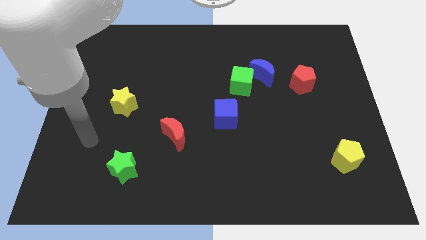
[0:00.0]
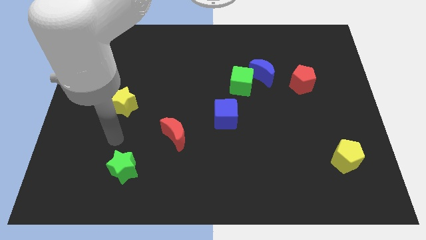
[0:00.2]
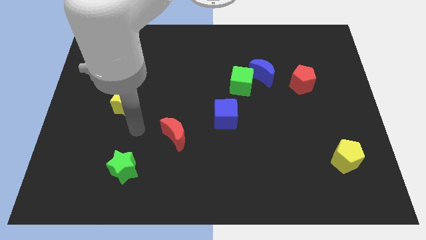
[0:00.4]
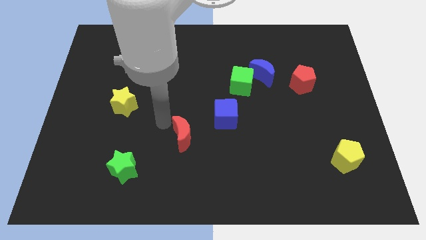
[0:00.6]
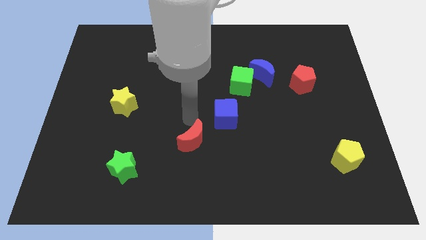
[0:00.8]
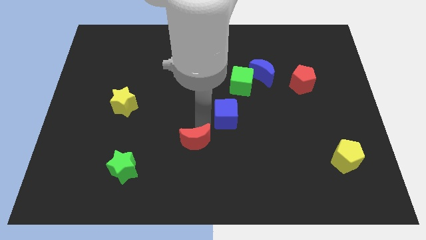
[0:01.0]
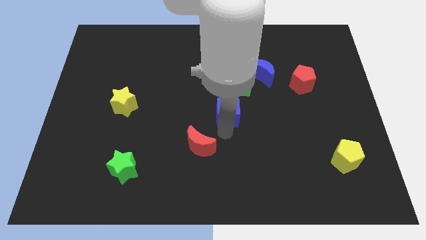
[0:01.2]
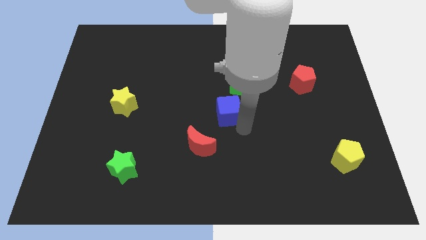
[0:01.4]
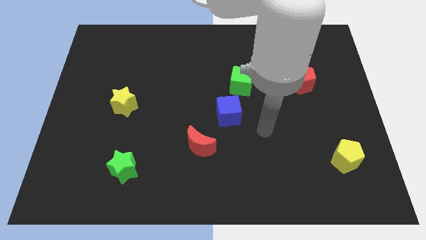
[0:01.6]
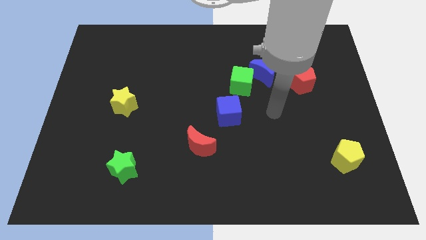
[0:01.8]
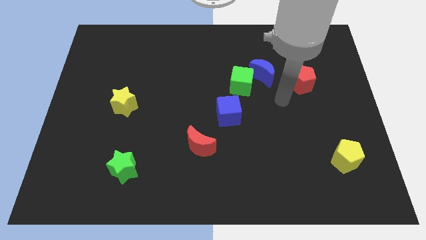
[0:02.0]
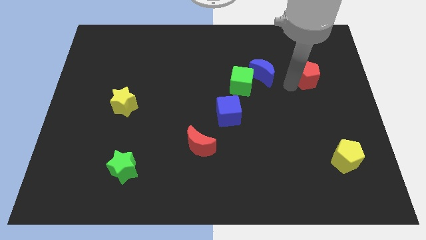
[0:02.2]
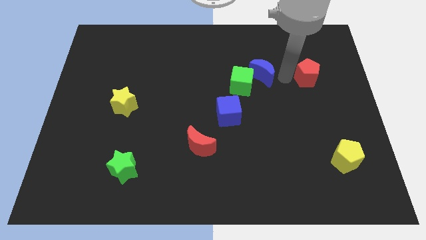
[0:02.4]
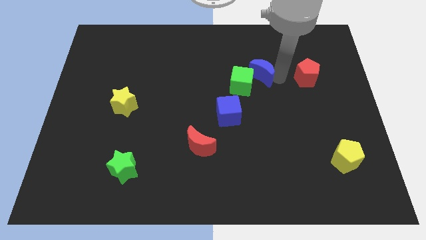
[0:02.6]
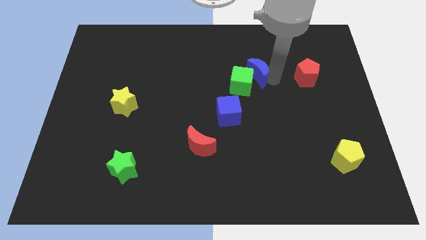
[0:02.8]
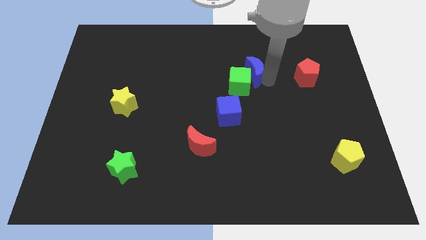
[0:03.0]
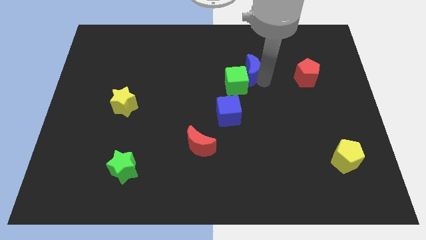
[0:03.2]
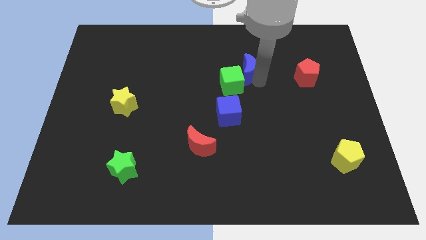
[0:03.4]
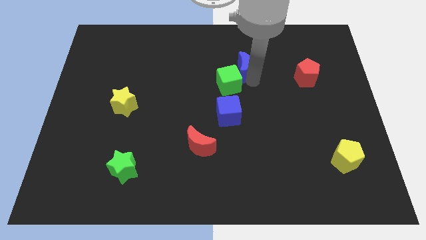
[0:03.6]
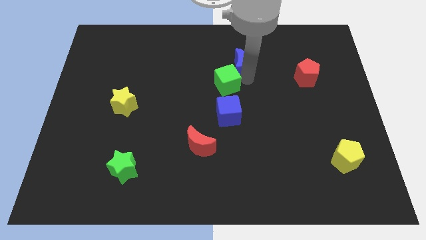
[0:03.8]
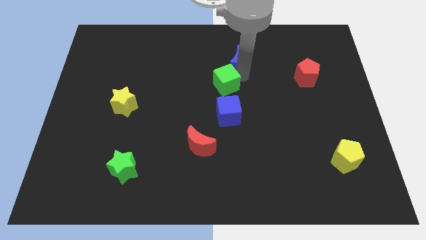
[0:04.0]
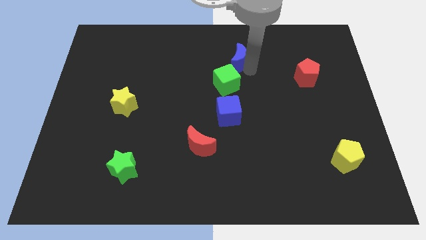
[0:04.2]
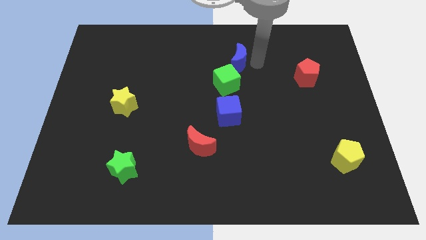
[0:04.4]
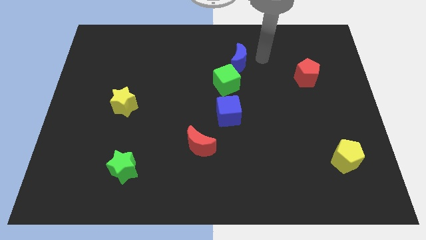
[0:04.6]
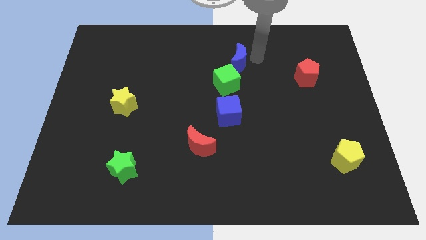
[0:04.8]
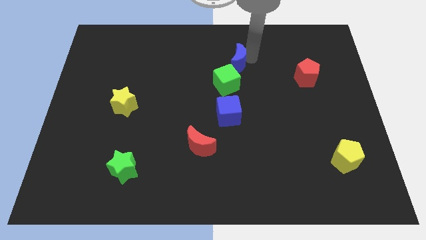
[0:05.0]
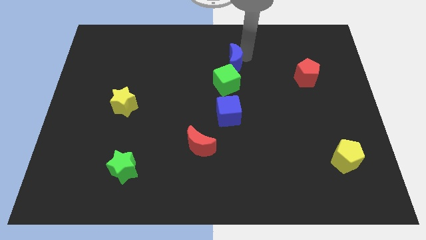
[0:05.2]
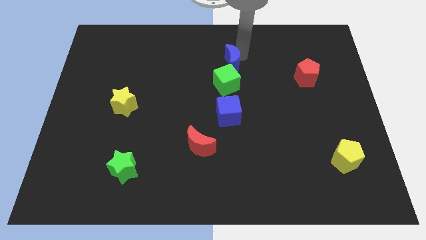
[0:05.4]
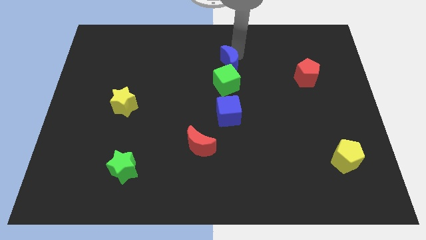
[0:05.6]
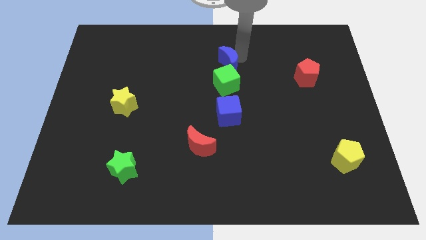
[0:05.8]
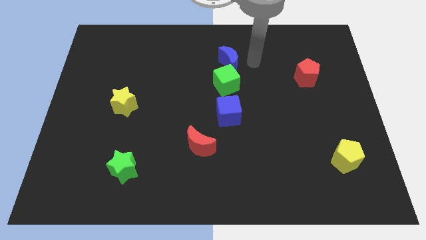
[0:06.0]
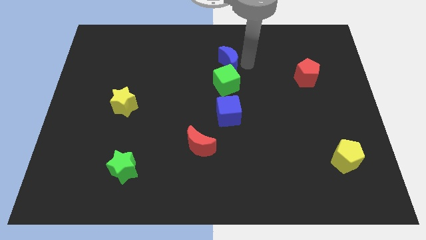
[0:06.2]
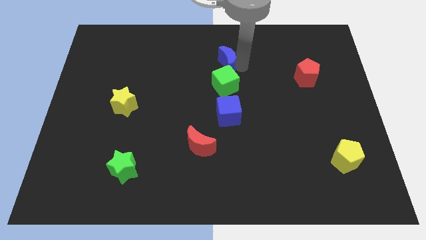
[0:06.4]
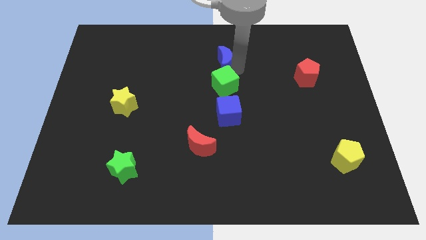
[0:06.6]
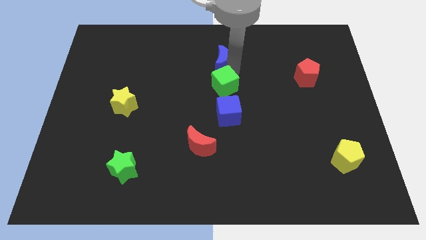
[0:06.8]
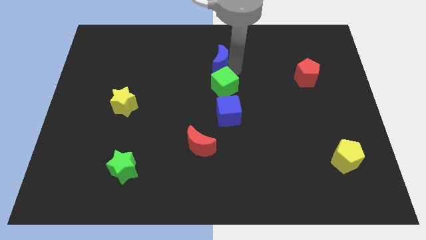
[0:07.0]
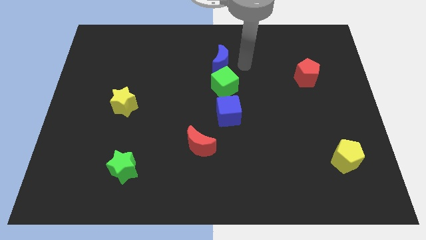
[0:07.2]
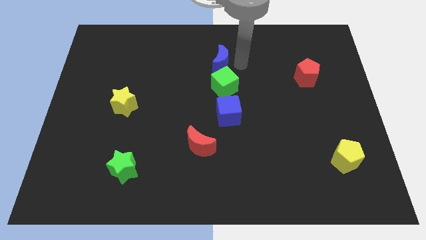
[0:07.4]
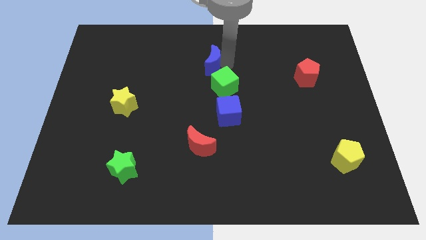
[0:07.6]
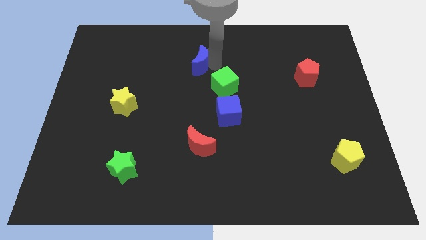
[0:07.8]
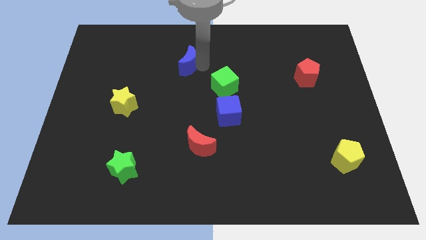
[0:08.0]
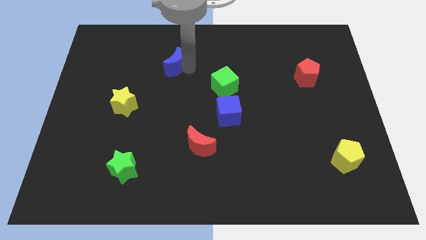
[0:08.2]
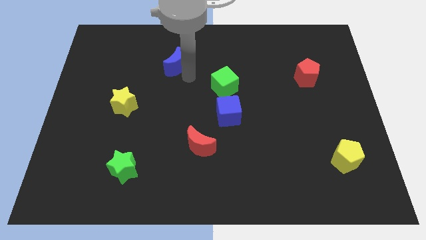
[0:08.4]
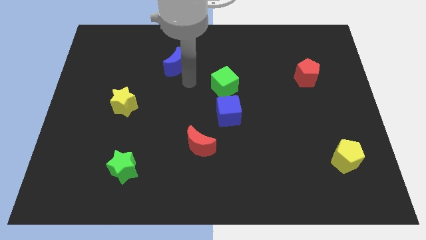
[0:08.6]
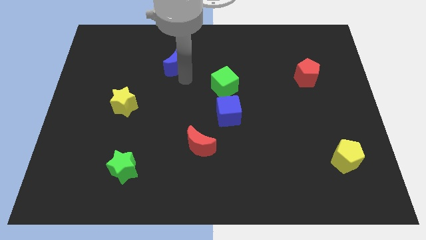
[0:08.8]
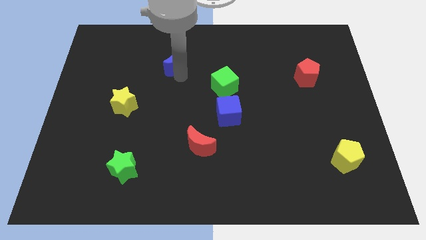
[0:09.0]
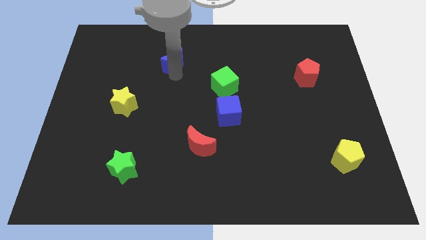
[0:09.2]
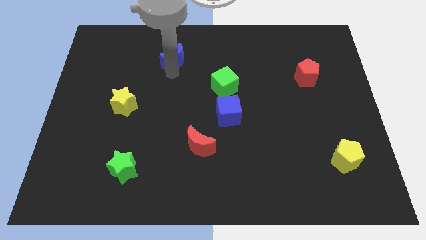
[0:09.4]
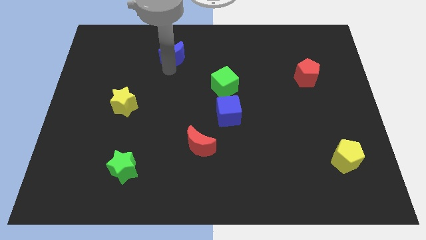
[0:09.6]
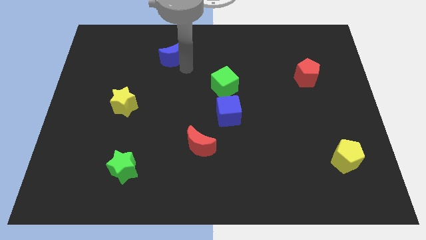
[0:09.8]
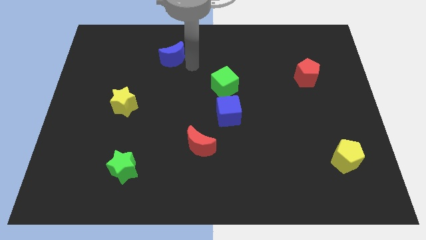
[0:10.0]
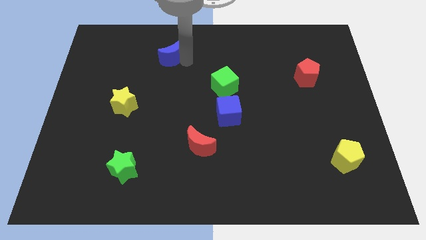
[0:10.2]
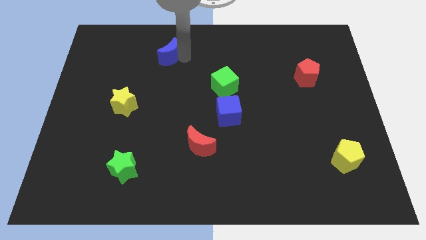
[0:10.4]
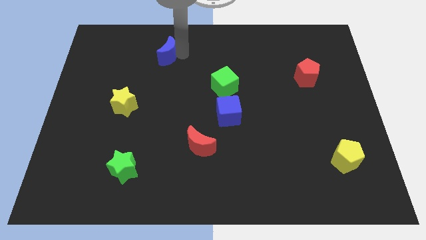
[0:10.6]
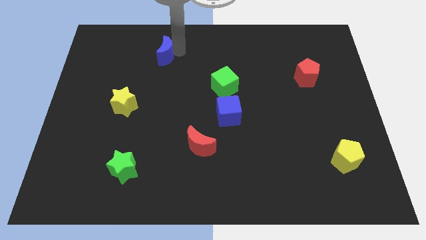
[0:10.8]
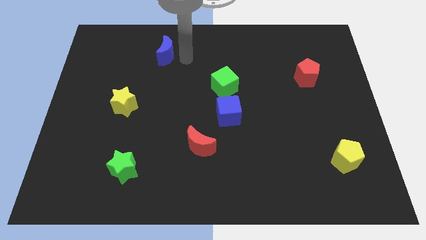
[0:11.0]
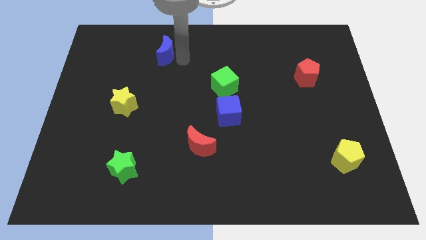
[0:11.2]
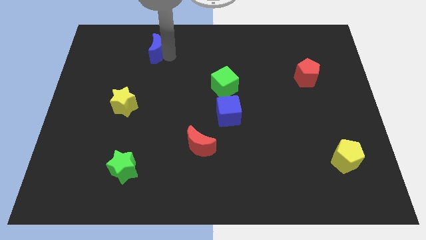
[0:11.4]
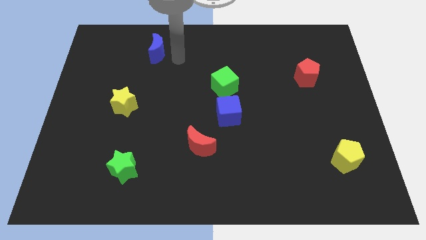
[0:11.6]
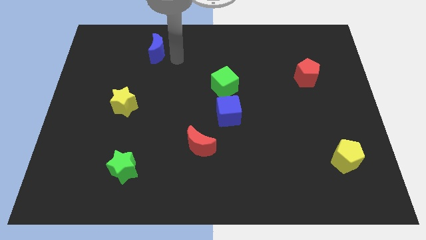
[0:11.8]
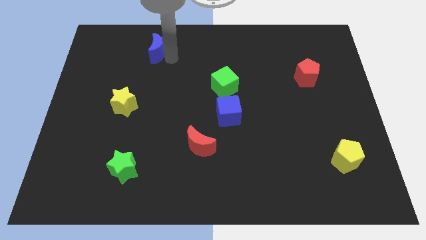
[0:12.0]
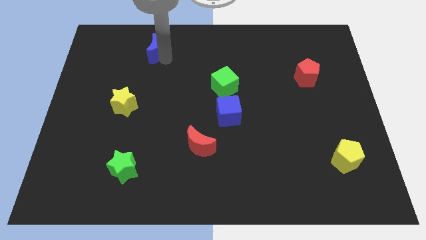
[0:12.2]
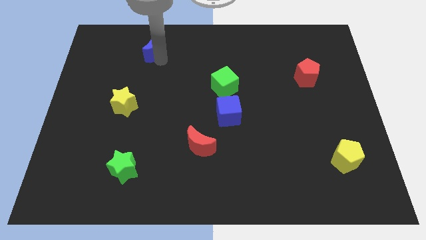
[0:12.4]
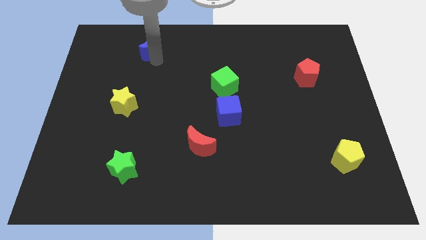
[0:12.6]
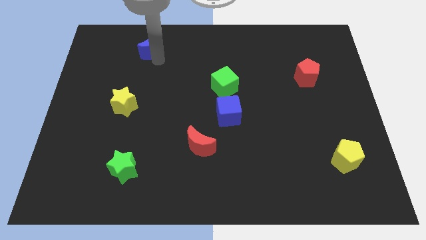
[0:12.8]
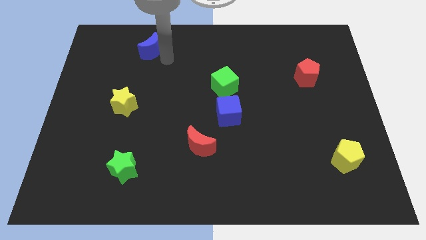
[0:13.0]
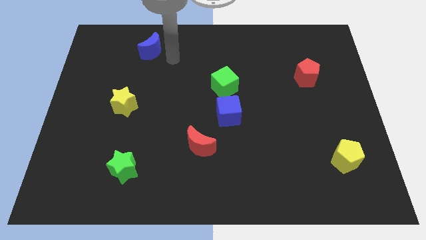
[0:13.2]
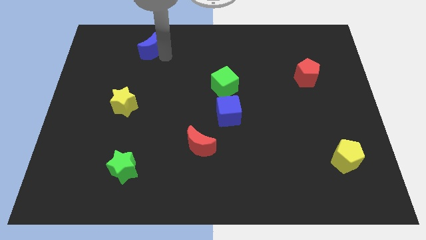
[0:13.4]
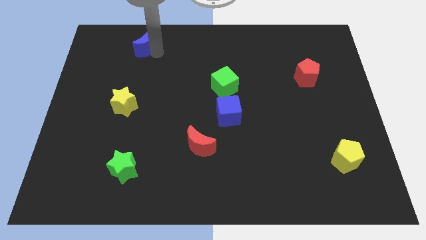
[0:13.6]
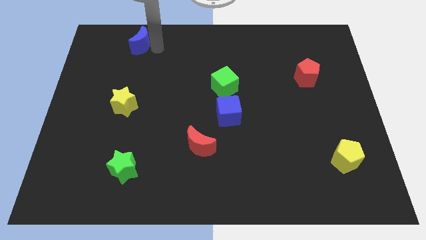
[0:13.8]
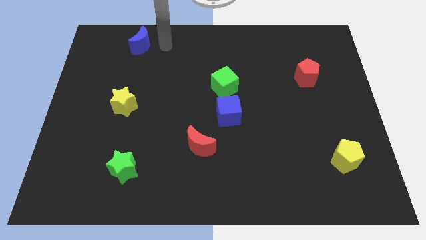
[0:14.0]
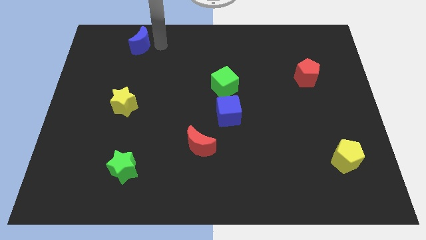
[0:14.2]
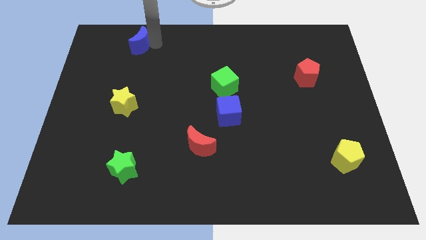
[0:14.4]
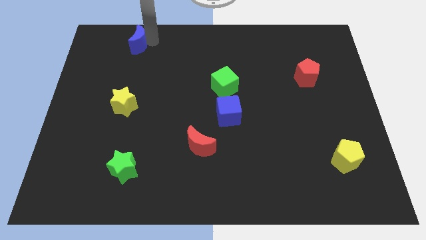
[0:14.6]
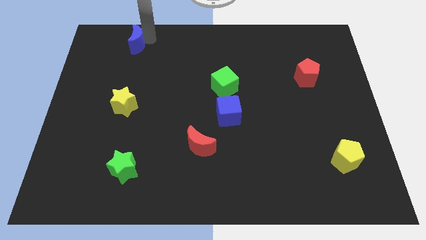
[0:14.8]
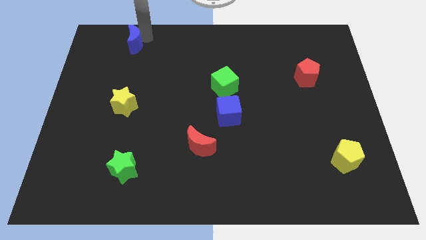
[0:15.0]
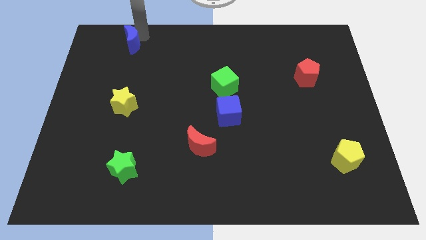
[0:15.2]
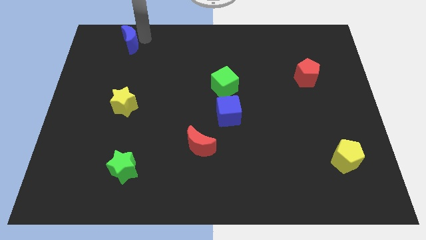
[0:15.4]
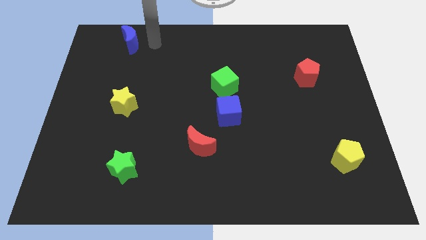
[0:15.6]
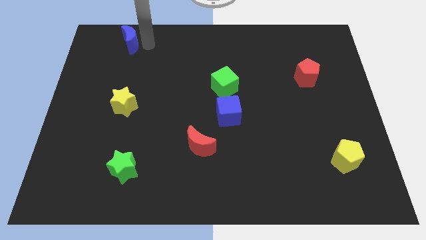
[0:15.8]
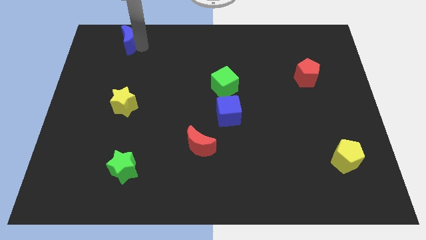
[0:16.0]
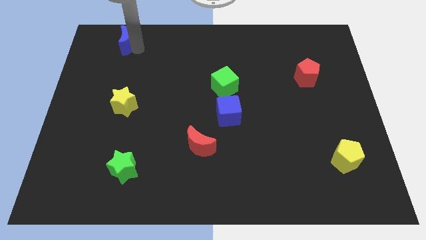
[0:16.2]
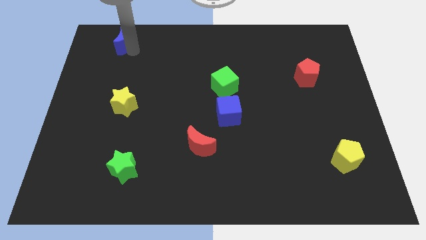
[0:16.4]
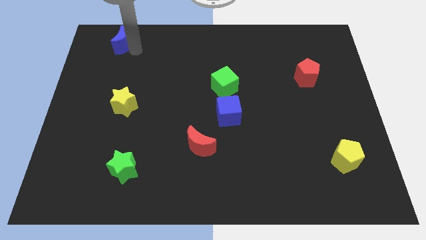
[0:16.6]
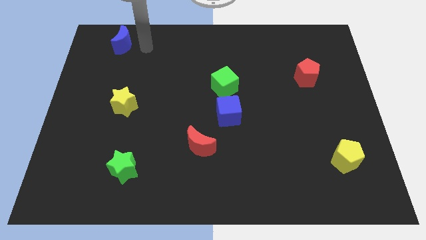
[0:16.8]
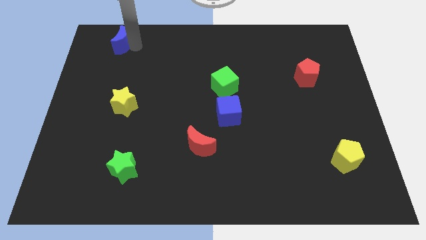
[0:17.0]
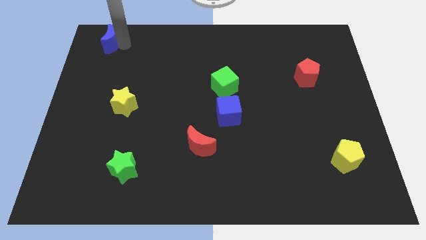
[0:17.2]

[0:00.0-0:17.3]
push the blue moon to the upper left corner
